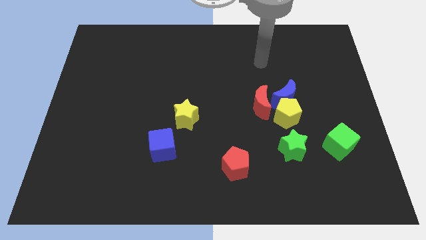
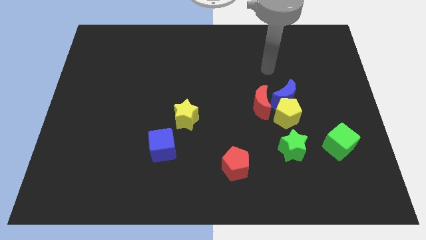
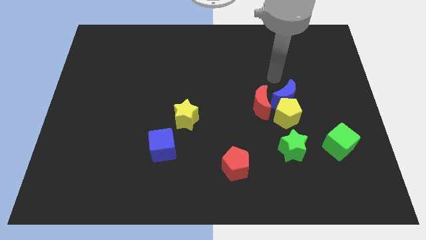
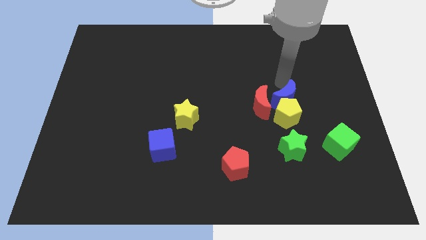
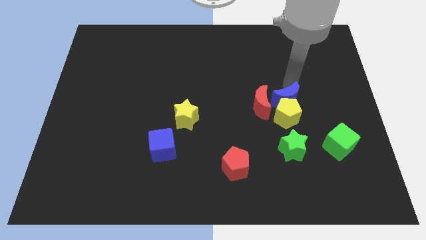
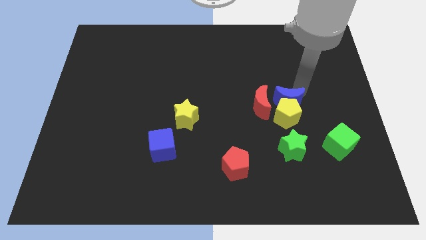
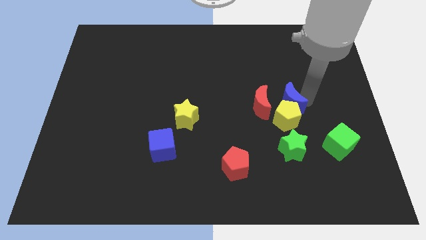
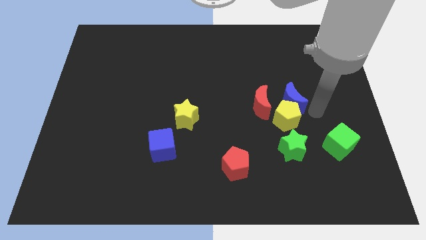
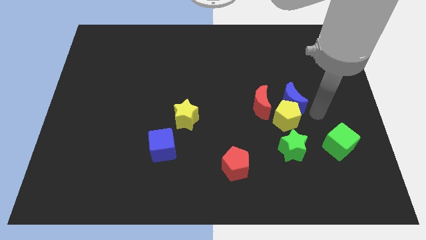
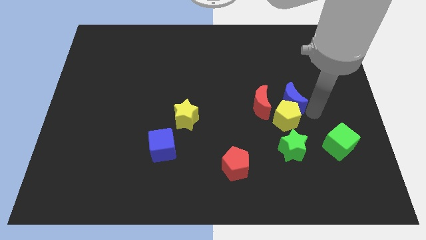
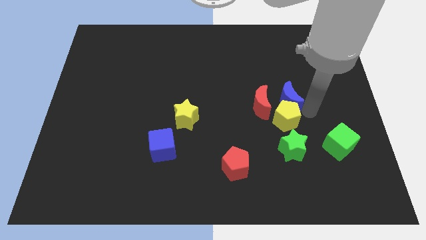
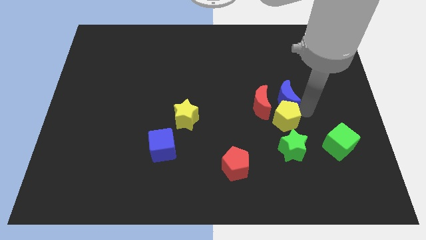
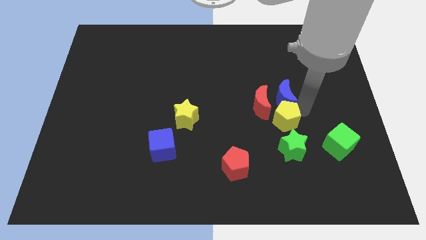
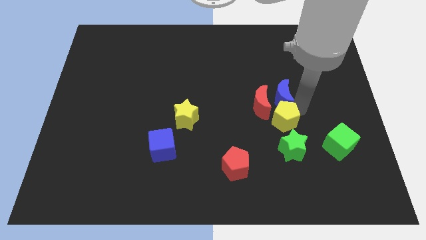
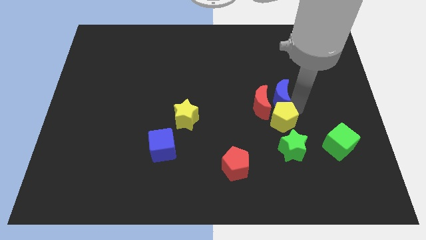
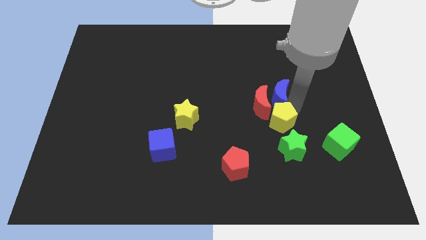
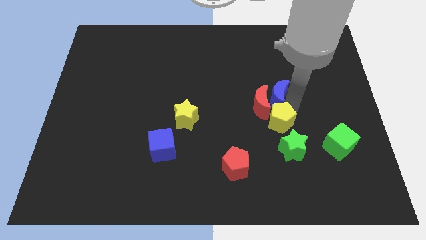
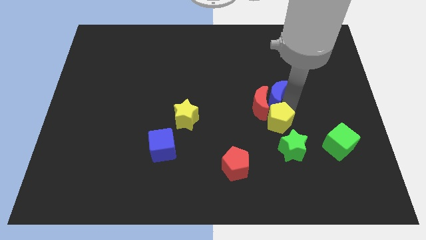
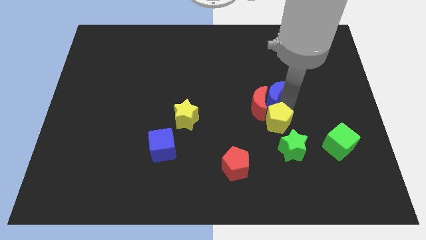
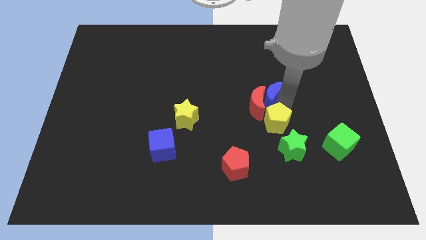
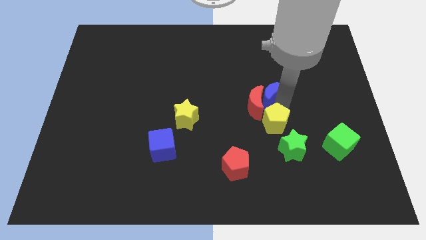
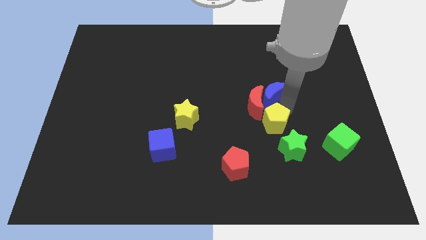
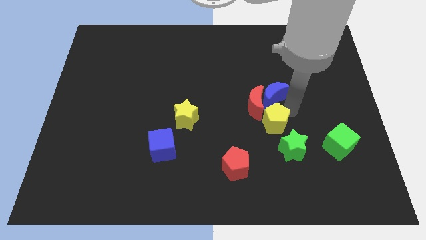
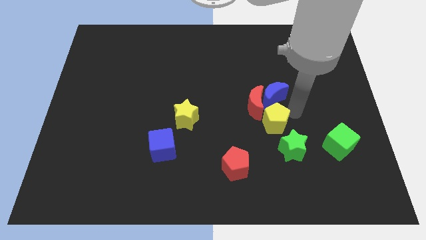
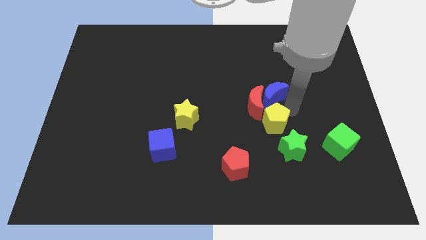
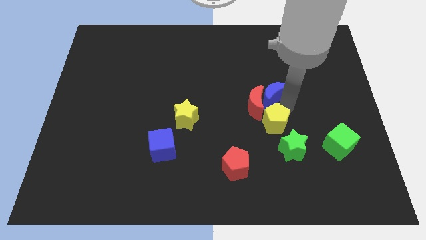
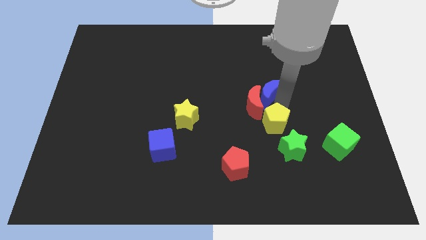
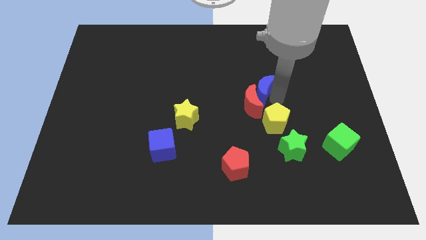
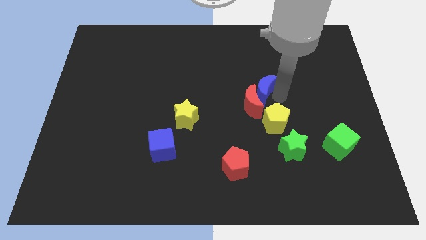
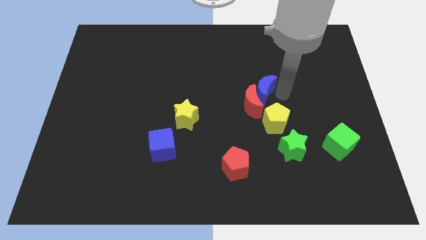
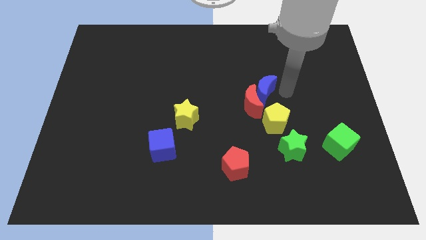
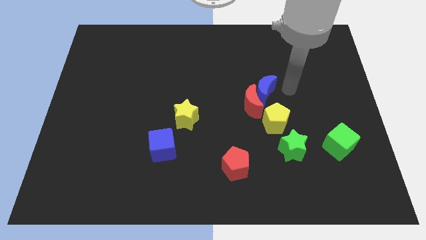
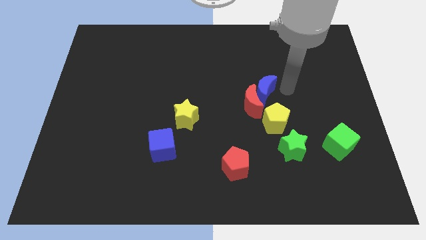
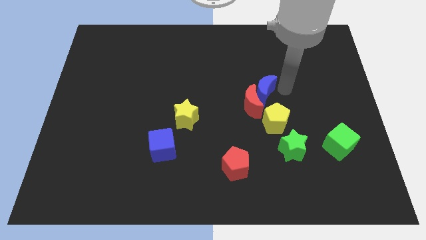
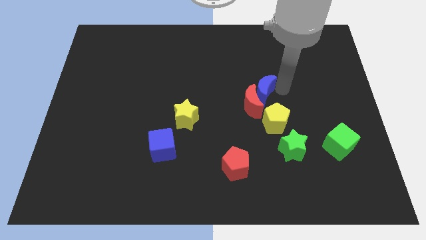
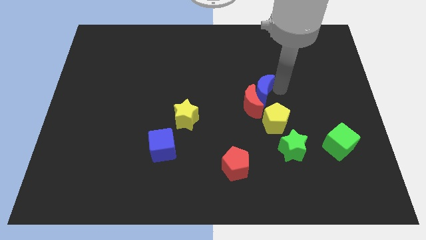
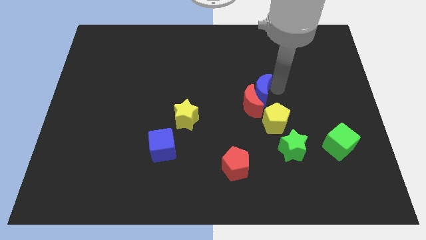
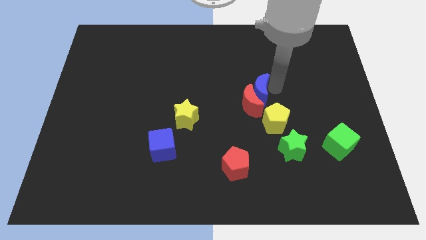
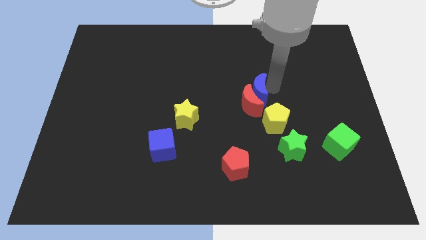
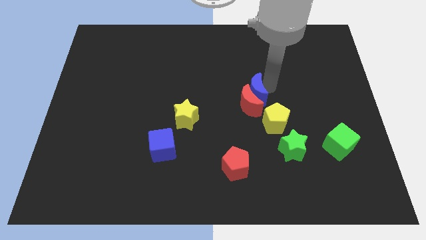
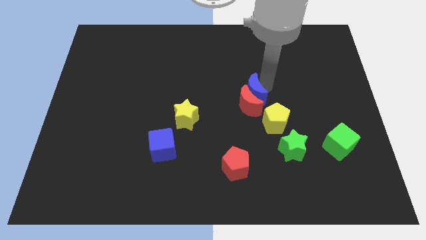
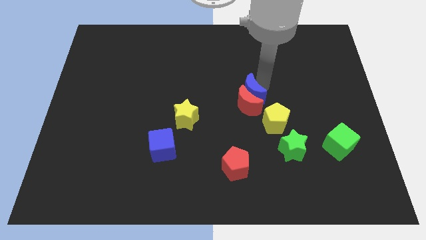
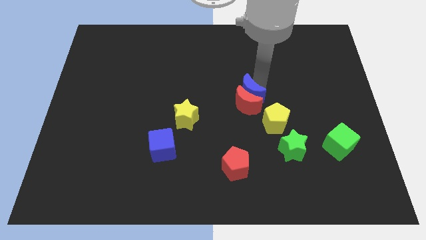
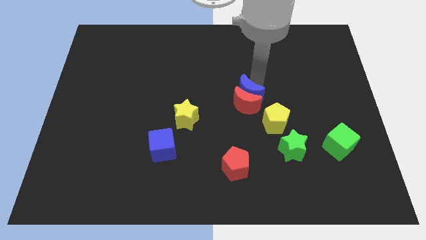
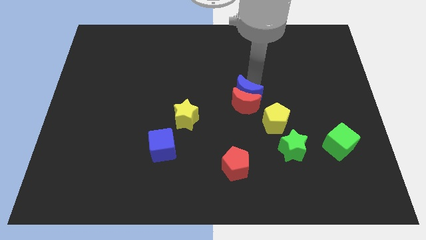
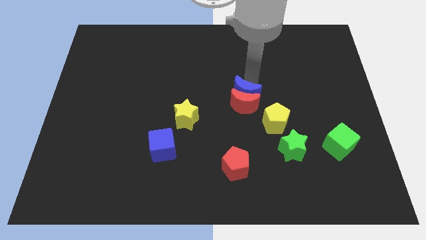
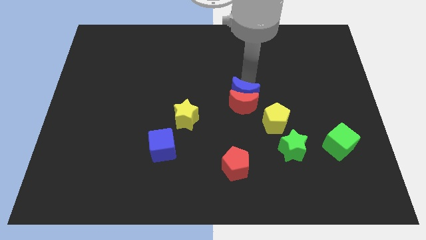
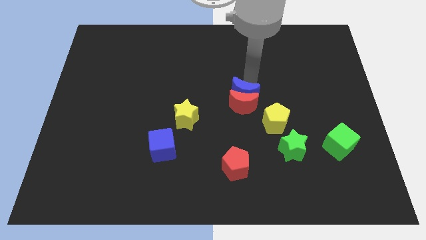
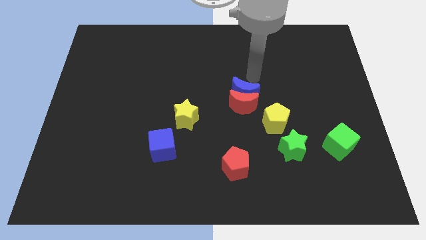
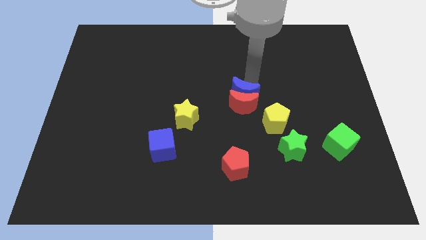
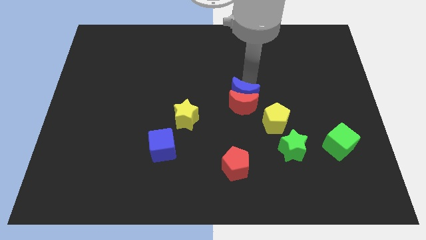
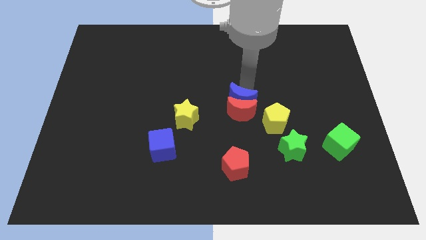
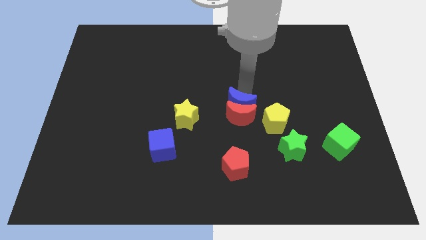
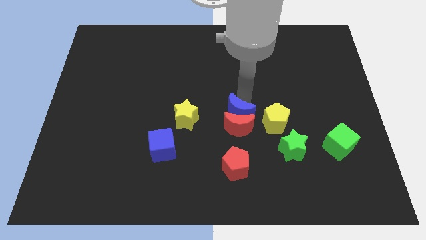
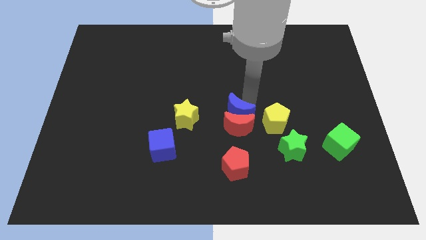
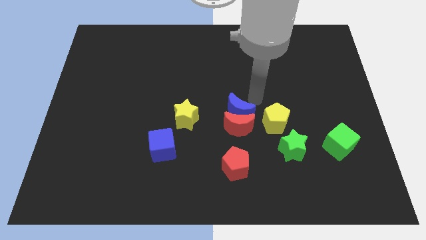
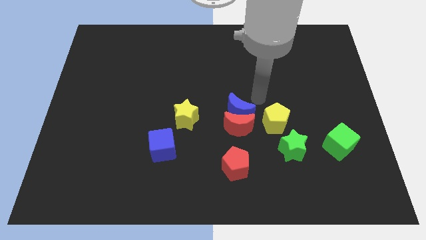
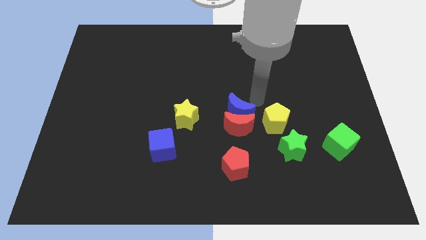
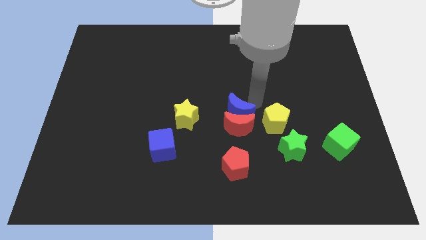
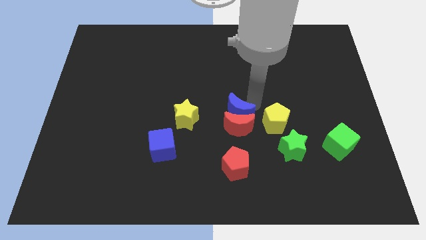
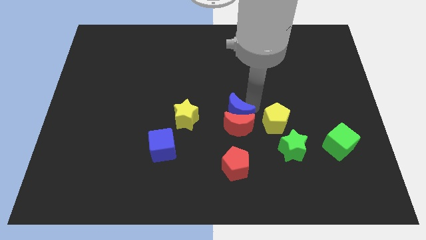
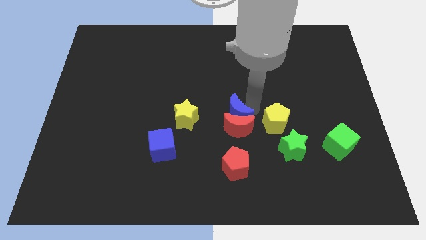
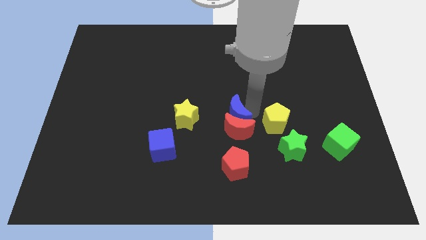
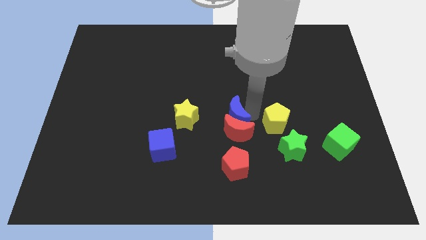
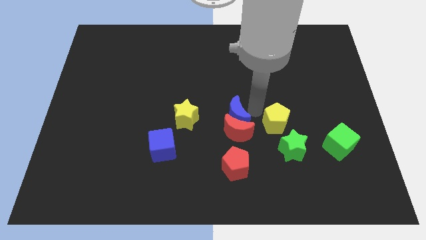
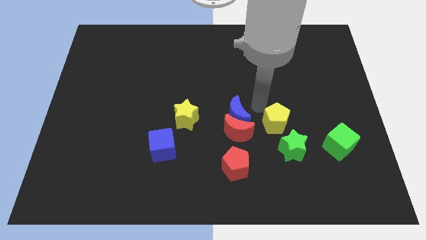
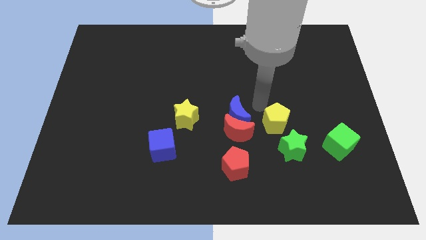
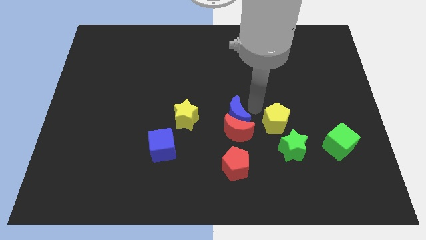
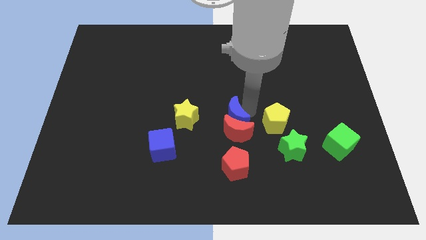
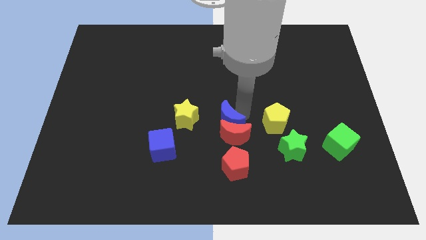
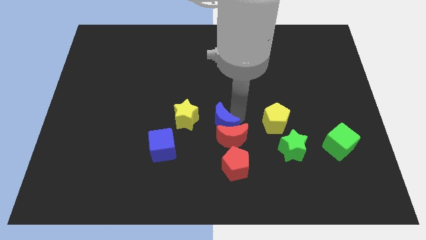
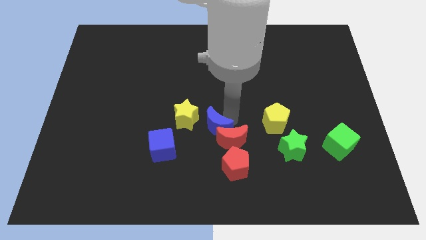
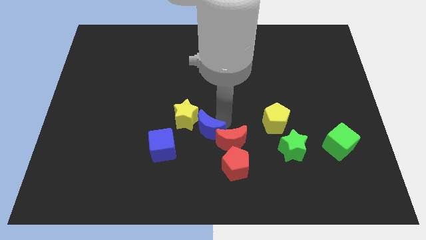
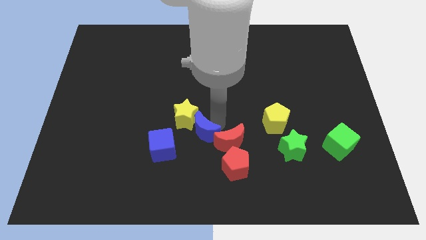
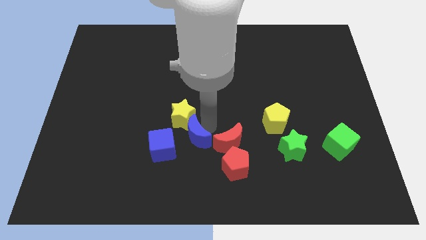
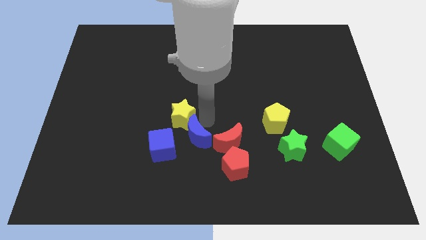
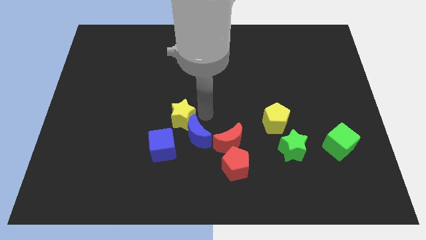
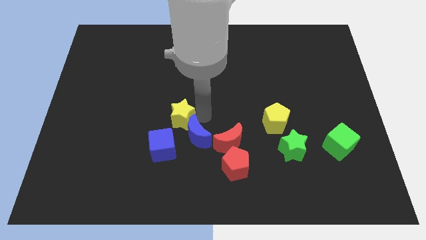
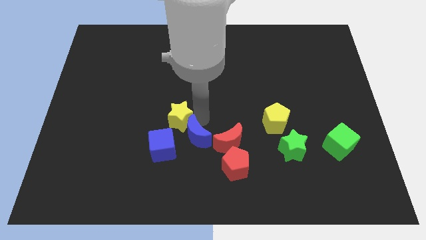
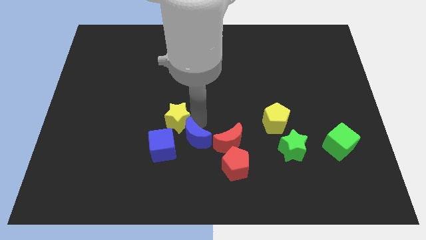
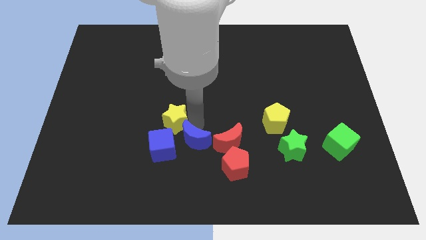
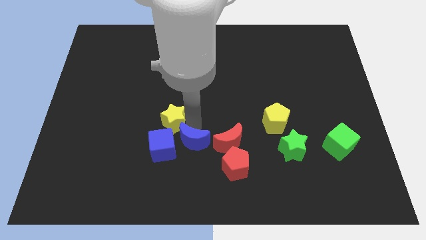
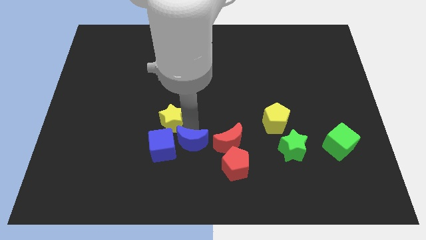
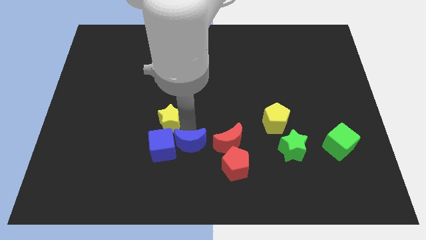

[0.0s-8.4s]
move the blue moon diagonally down and to the right of the blue cube
